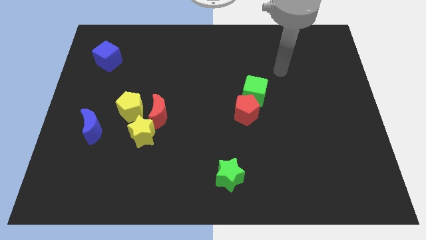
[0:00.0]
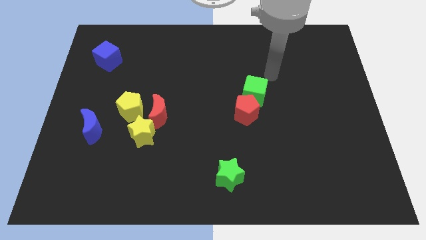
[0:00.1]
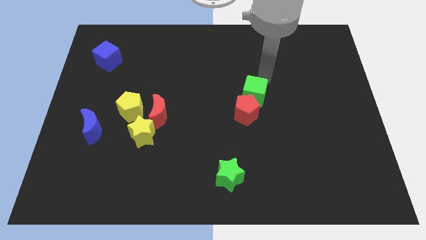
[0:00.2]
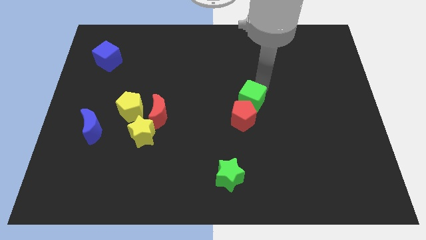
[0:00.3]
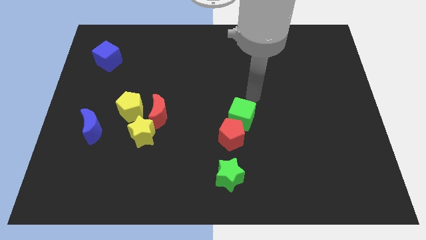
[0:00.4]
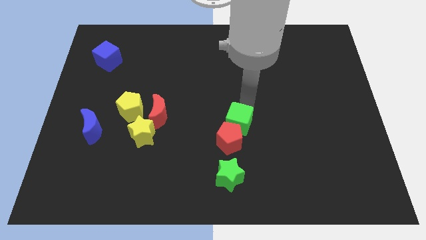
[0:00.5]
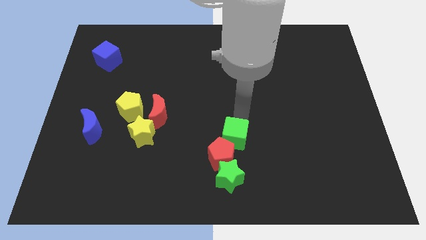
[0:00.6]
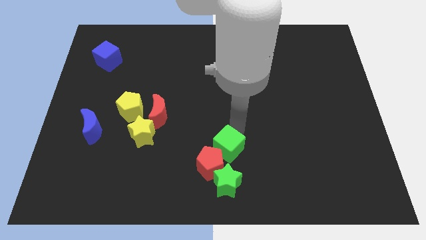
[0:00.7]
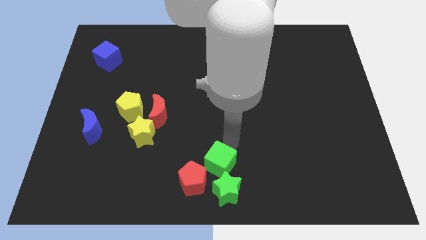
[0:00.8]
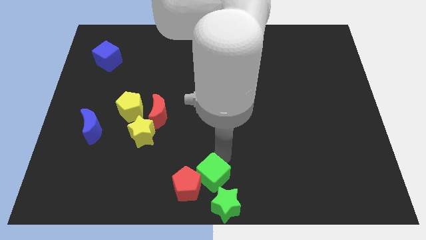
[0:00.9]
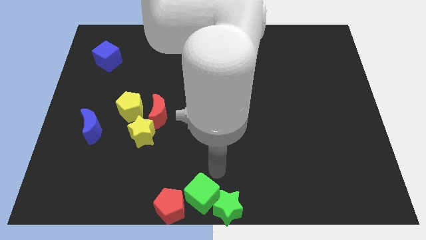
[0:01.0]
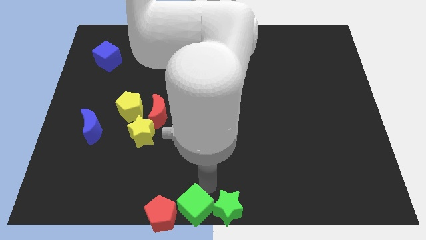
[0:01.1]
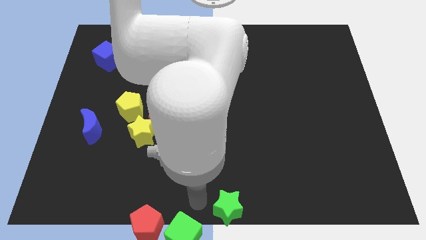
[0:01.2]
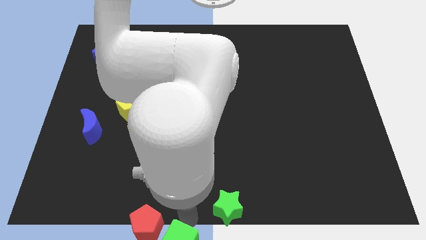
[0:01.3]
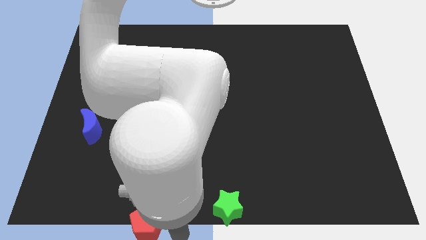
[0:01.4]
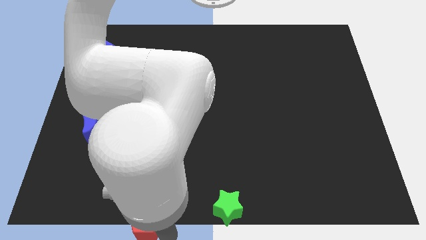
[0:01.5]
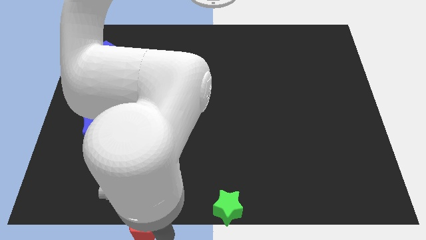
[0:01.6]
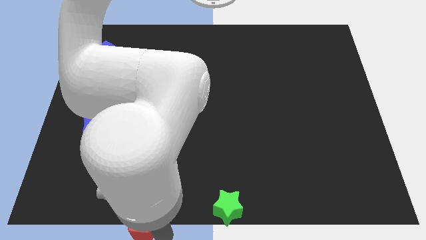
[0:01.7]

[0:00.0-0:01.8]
move the red pentagon away from the green cube

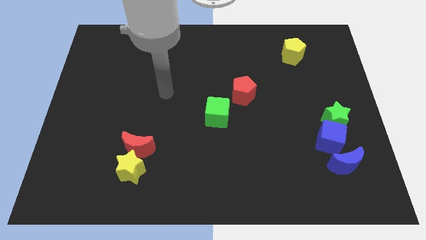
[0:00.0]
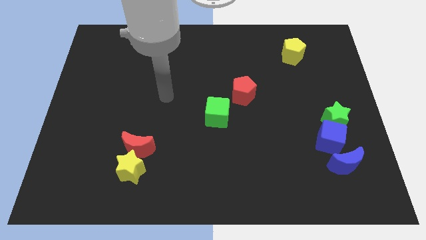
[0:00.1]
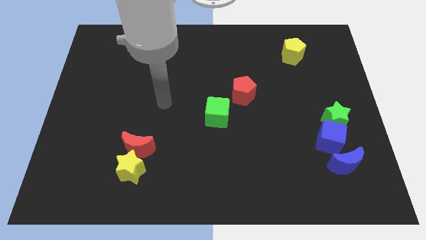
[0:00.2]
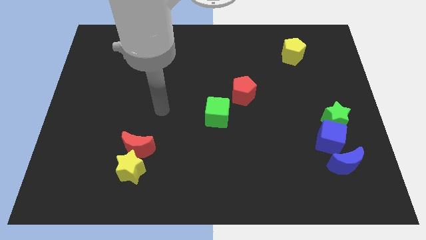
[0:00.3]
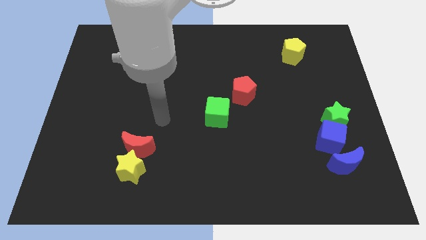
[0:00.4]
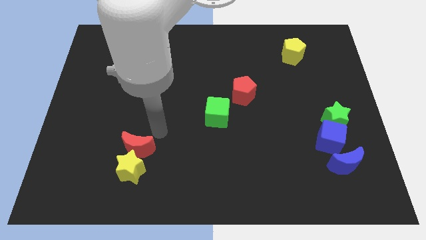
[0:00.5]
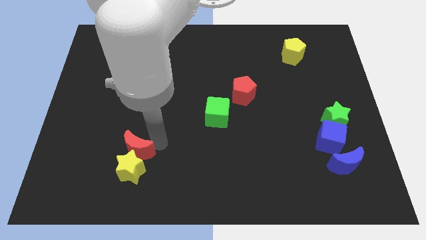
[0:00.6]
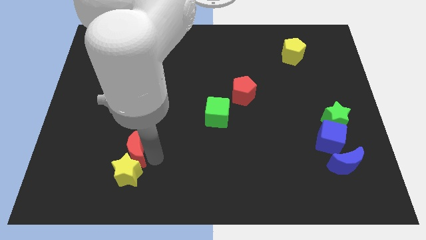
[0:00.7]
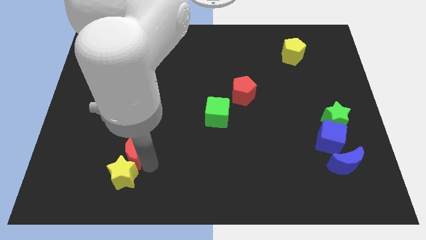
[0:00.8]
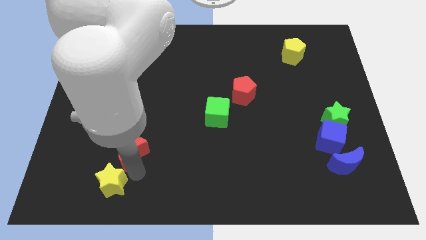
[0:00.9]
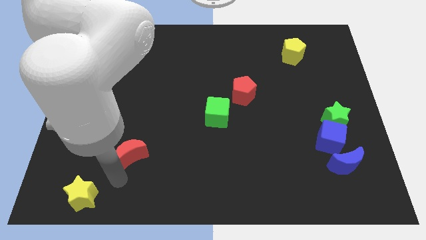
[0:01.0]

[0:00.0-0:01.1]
move the red moon away from the yellow star

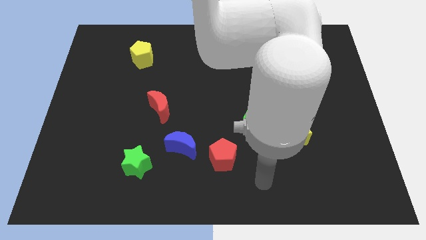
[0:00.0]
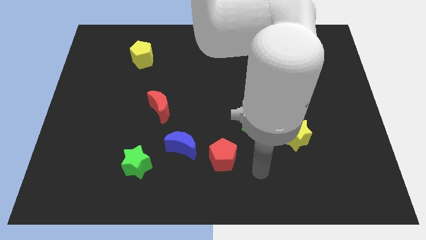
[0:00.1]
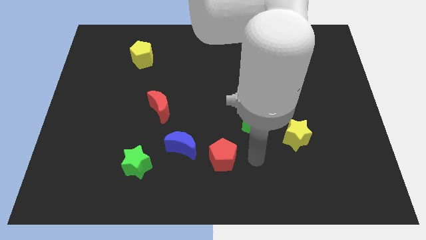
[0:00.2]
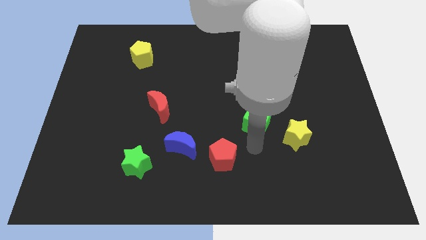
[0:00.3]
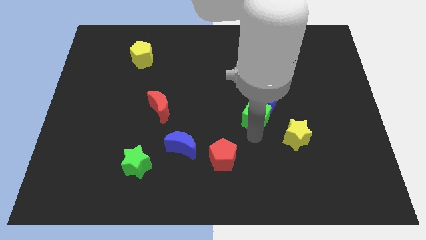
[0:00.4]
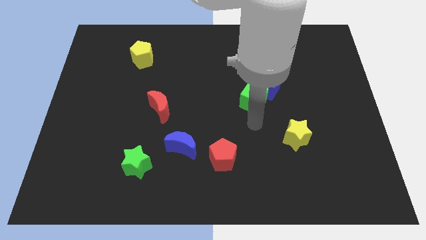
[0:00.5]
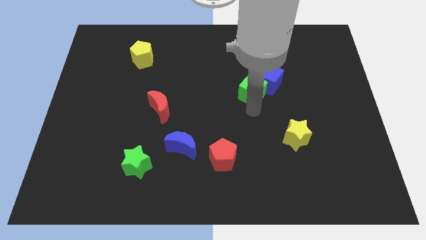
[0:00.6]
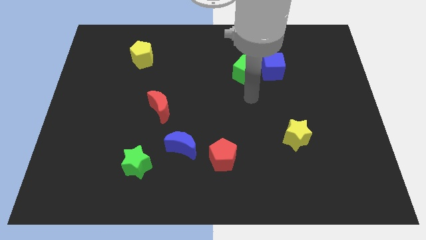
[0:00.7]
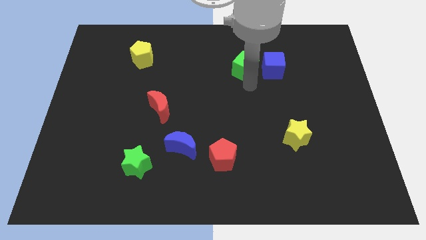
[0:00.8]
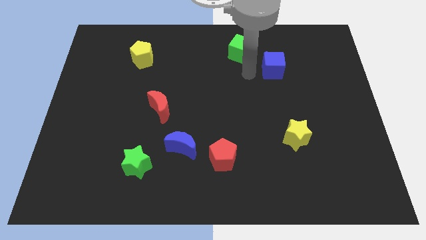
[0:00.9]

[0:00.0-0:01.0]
move the blue cube away from the green cube

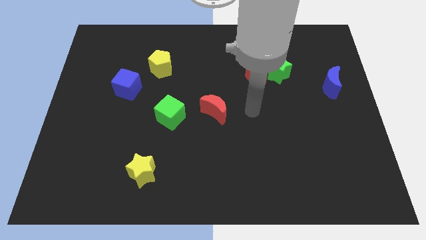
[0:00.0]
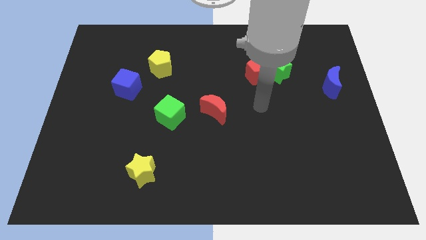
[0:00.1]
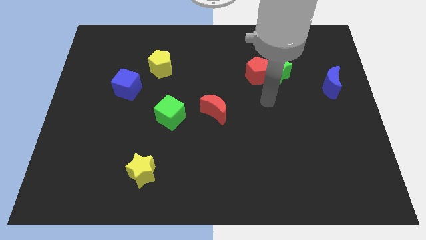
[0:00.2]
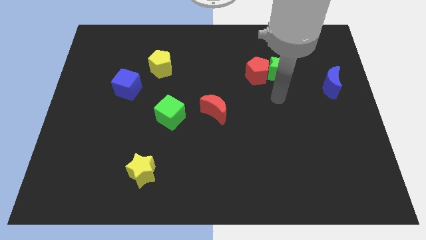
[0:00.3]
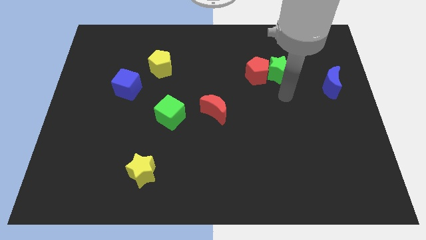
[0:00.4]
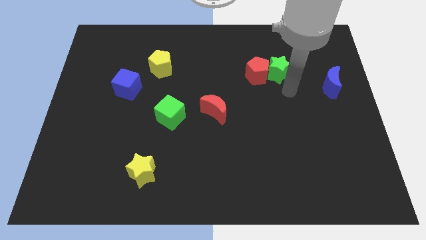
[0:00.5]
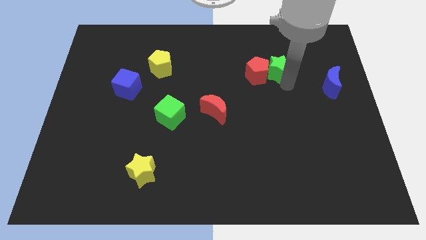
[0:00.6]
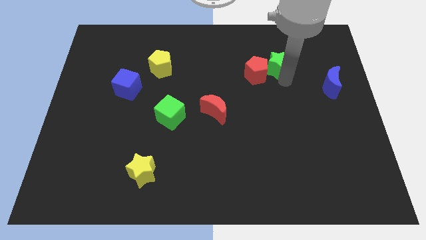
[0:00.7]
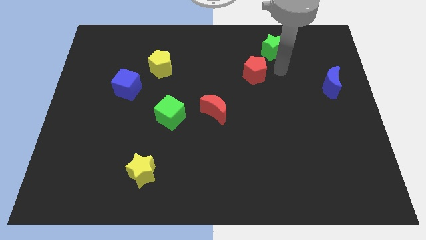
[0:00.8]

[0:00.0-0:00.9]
move the red pentagon away from the green star

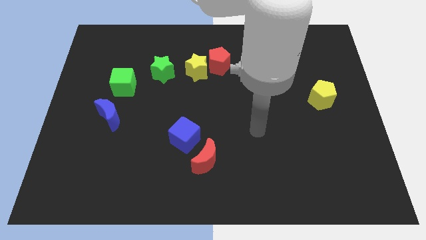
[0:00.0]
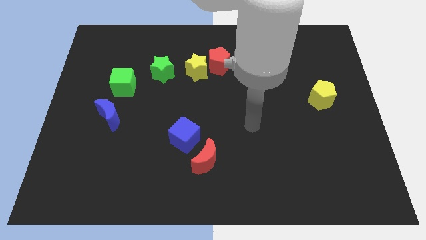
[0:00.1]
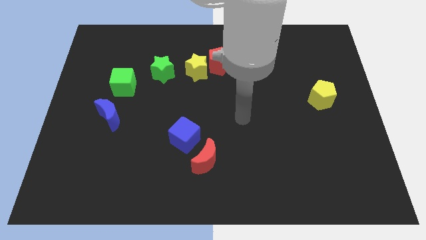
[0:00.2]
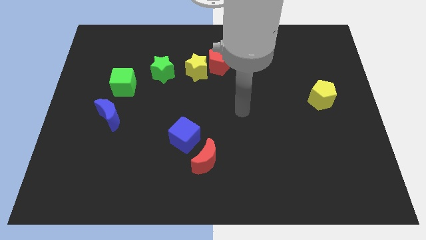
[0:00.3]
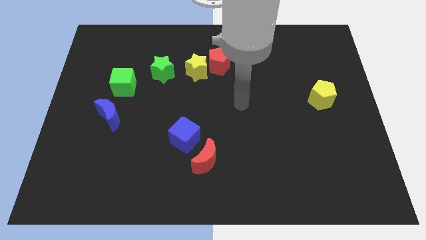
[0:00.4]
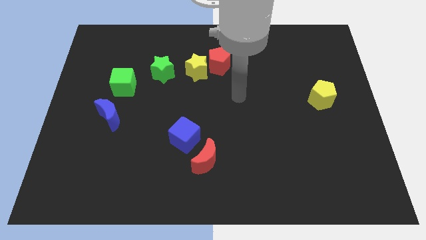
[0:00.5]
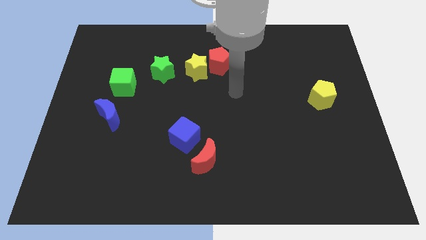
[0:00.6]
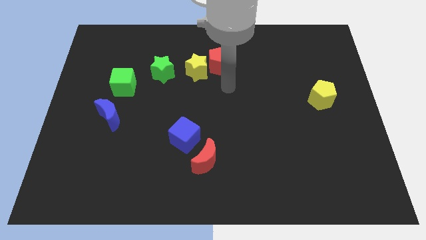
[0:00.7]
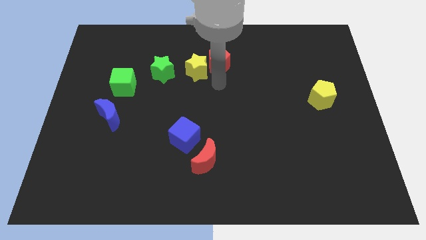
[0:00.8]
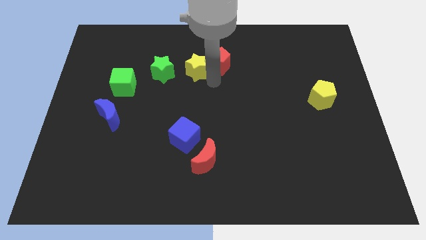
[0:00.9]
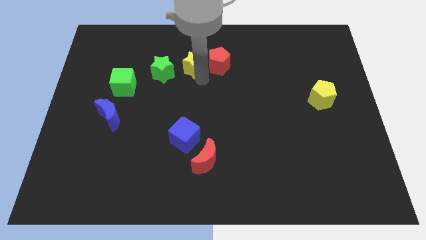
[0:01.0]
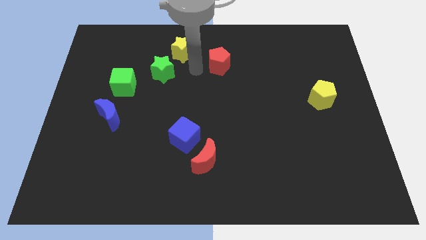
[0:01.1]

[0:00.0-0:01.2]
separate the red pentagon from the yellow star

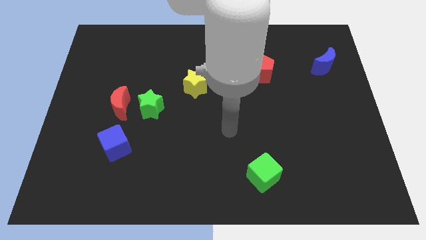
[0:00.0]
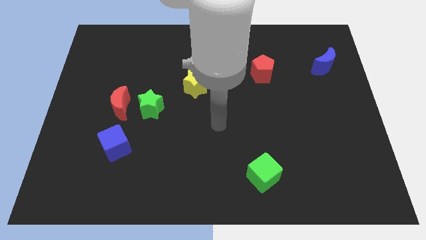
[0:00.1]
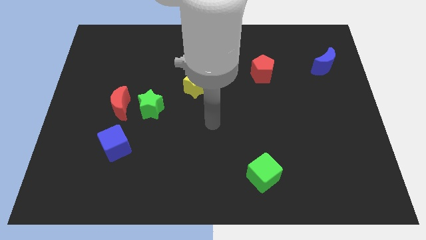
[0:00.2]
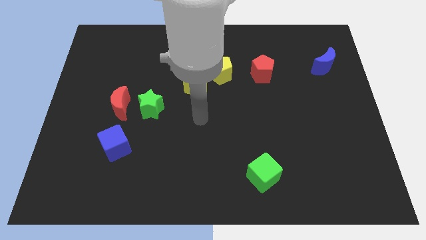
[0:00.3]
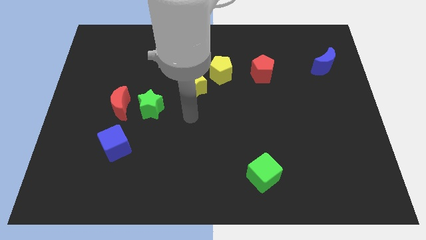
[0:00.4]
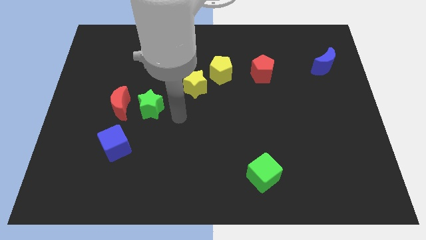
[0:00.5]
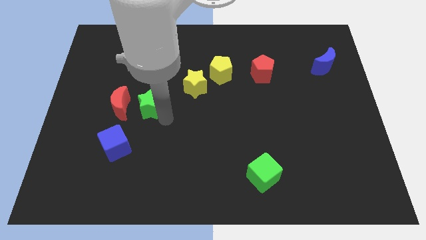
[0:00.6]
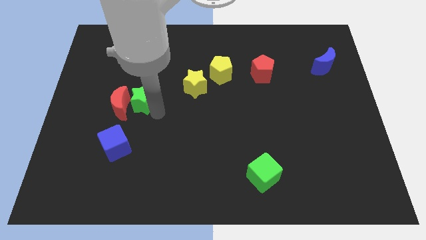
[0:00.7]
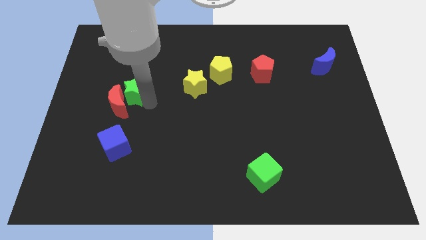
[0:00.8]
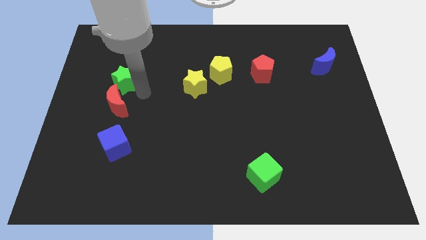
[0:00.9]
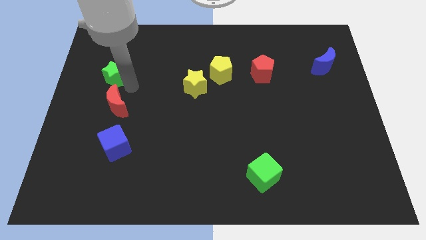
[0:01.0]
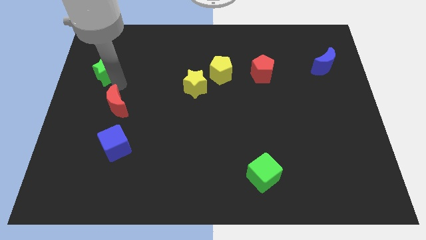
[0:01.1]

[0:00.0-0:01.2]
move the red moon away from the green star

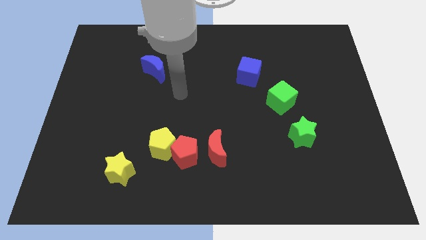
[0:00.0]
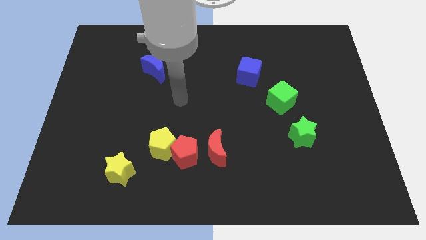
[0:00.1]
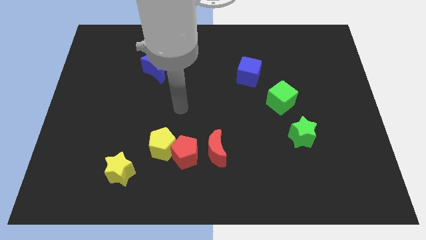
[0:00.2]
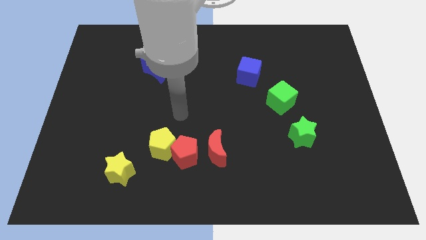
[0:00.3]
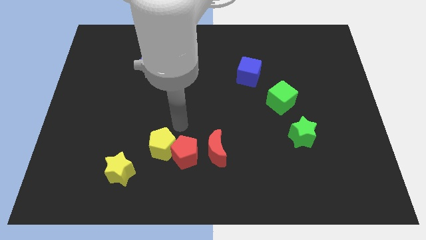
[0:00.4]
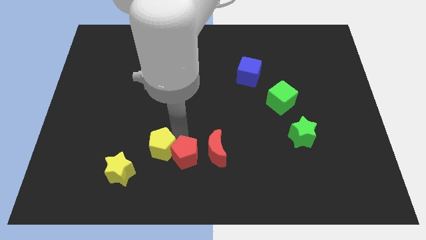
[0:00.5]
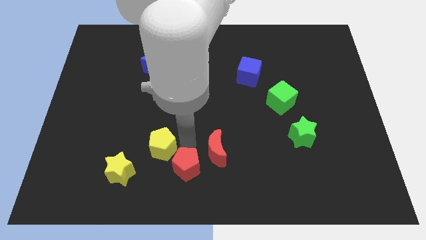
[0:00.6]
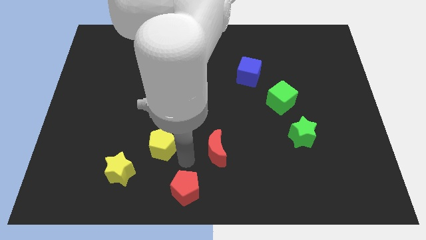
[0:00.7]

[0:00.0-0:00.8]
pull the yellow pentagon apart from the red pentagon

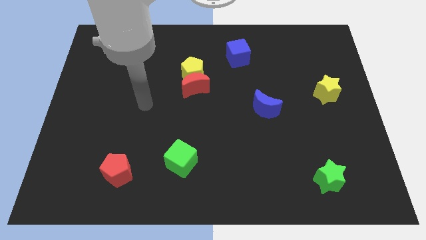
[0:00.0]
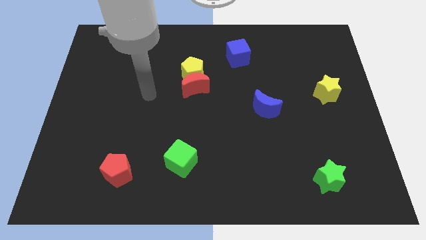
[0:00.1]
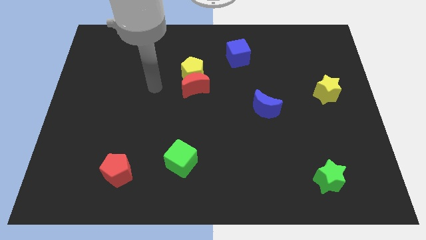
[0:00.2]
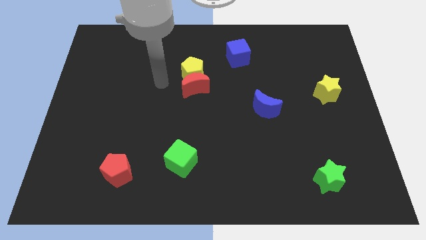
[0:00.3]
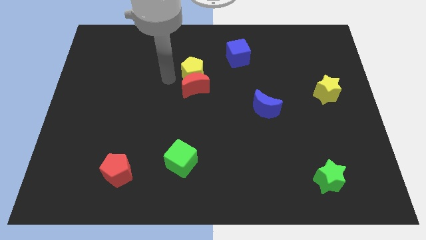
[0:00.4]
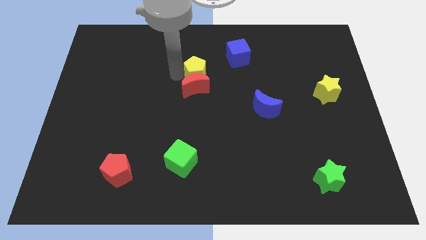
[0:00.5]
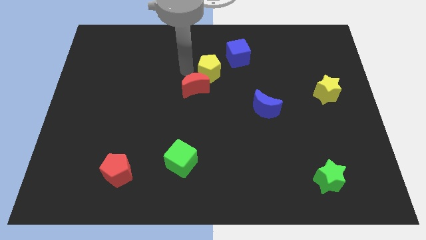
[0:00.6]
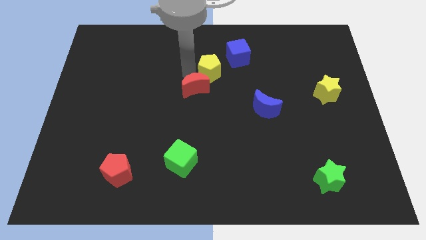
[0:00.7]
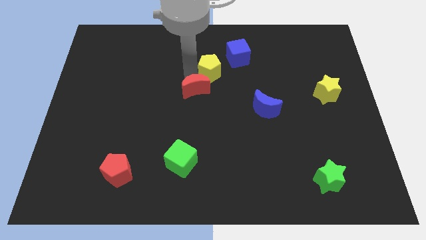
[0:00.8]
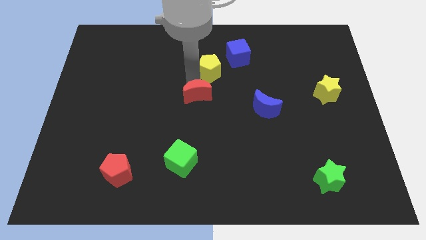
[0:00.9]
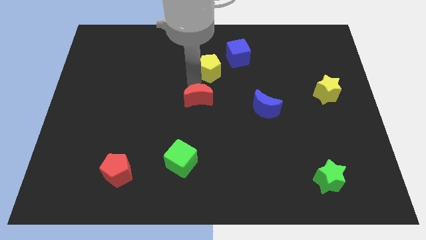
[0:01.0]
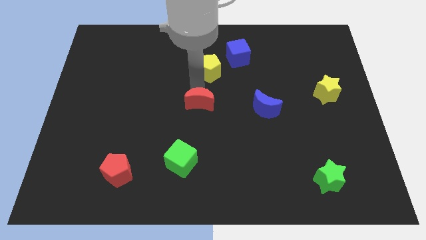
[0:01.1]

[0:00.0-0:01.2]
move the red moon away from the yellow pentagon

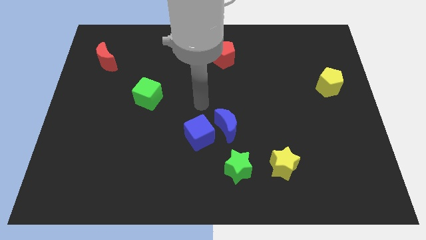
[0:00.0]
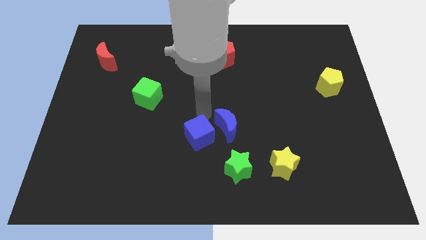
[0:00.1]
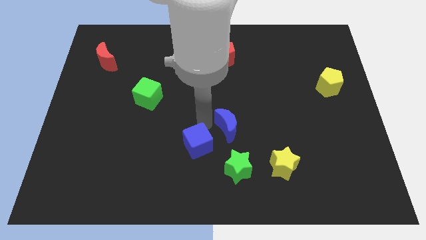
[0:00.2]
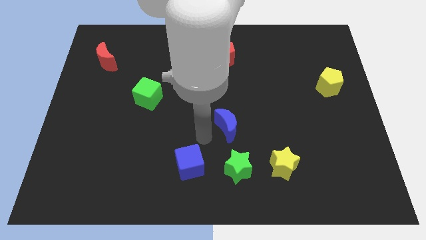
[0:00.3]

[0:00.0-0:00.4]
move the blue moon away from the blue cube
